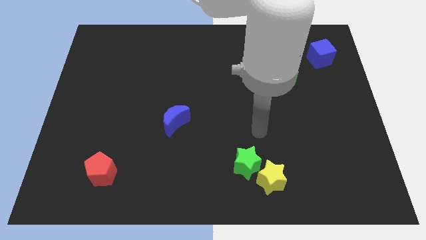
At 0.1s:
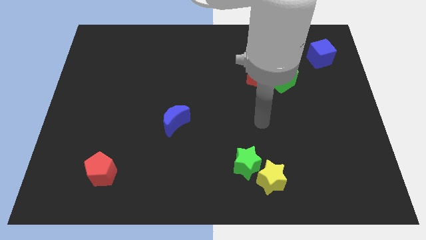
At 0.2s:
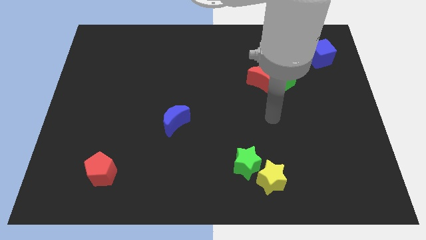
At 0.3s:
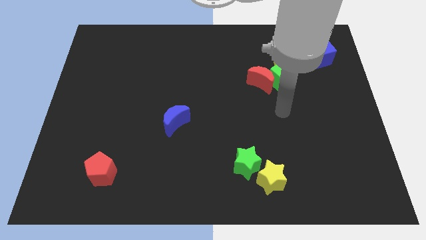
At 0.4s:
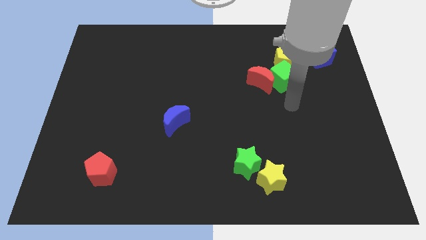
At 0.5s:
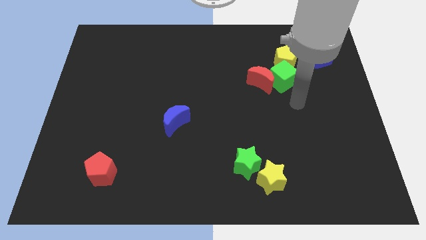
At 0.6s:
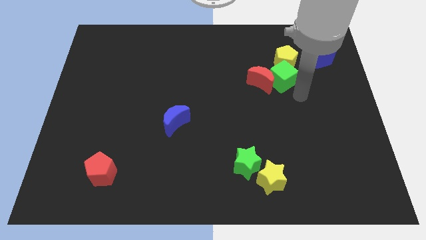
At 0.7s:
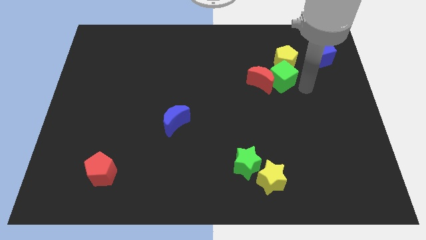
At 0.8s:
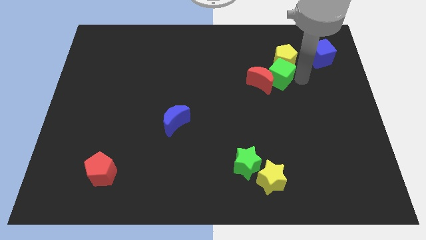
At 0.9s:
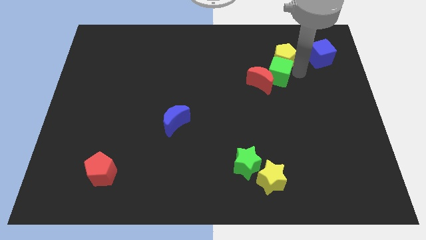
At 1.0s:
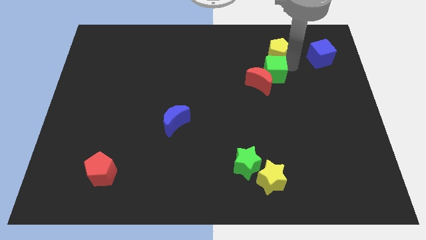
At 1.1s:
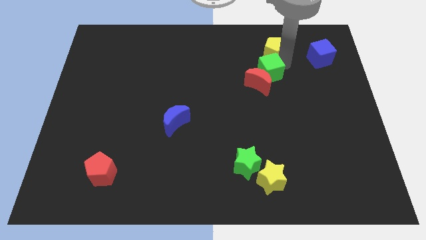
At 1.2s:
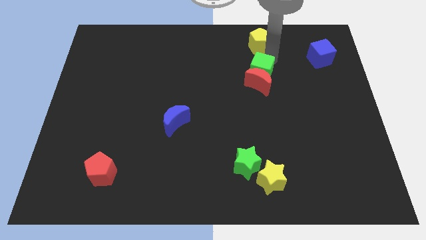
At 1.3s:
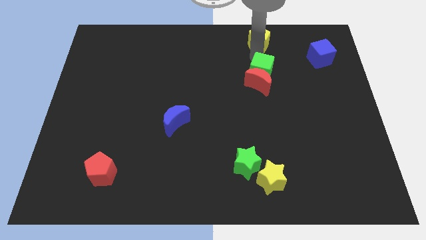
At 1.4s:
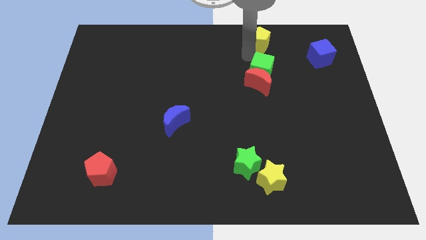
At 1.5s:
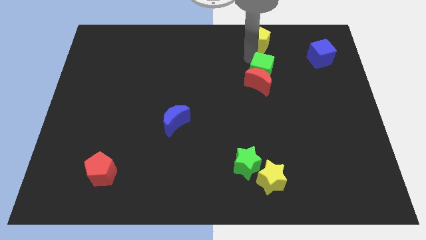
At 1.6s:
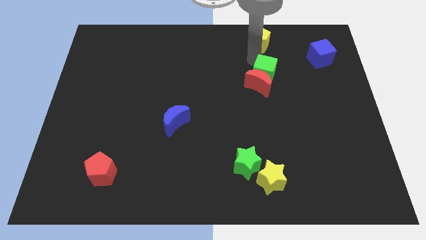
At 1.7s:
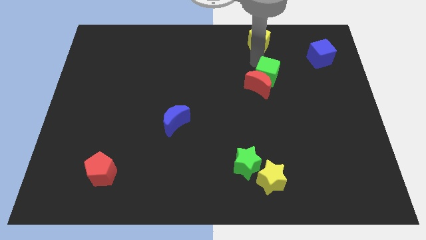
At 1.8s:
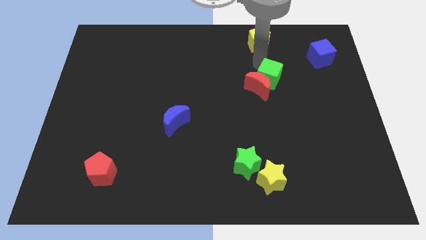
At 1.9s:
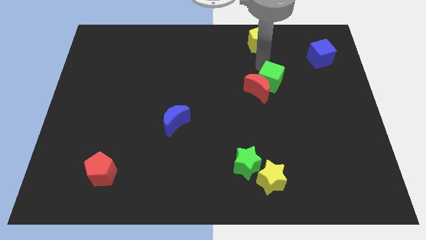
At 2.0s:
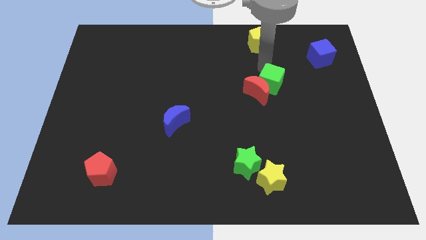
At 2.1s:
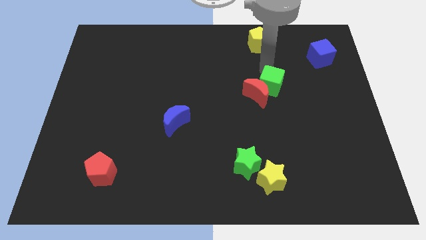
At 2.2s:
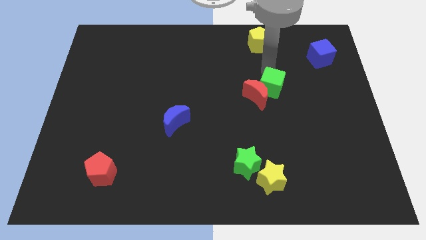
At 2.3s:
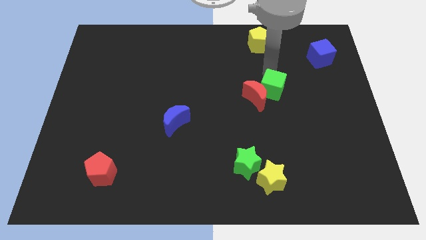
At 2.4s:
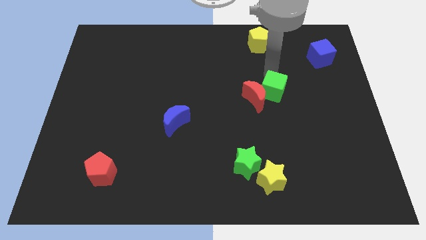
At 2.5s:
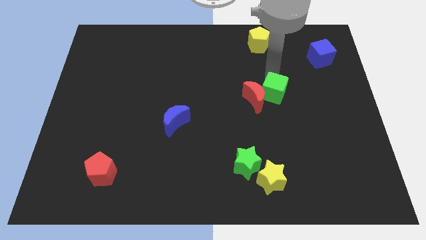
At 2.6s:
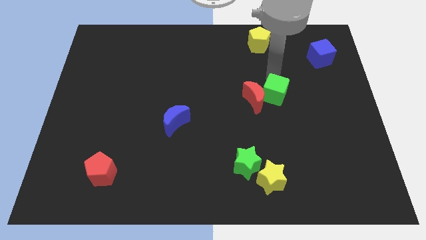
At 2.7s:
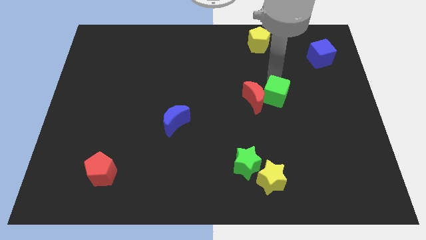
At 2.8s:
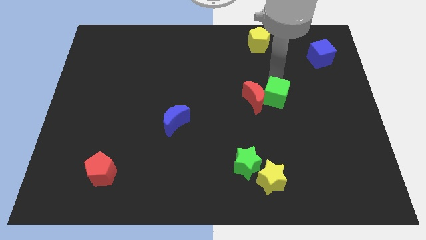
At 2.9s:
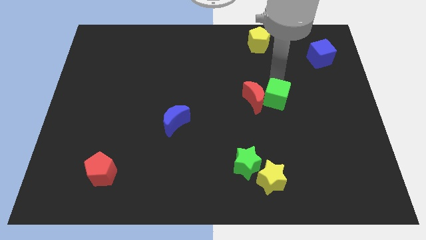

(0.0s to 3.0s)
pull the green cube apart from the red moon and yellow pentagon

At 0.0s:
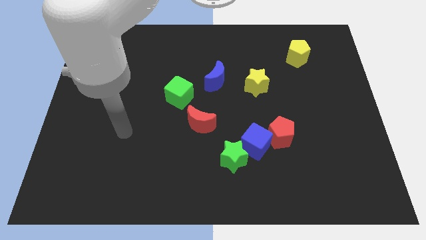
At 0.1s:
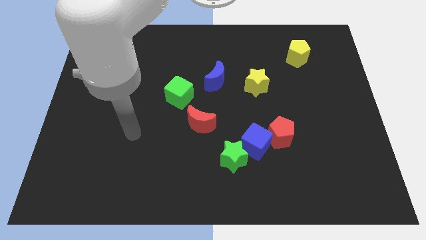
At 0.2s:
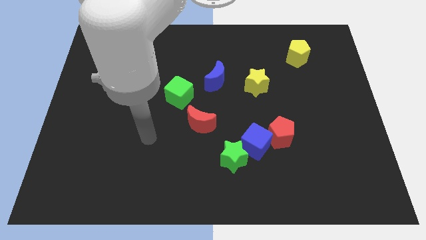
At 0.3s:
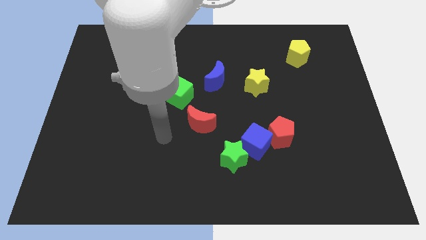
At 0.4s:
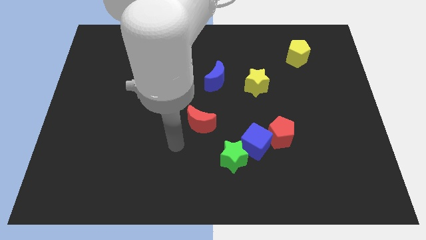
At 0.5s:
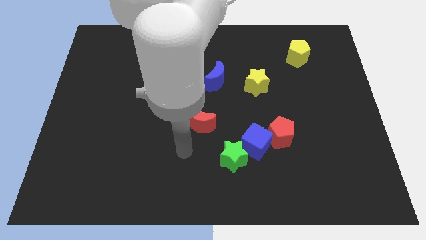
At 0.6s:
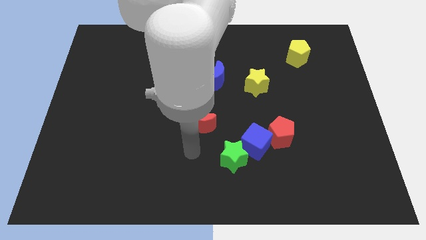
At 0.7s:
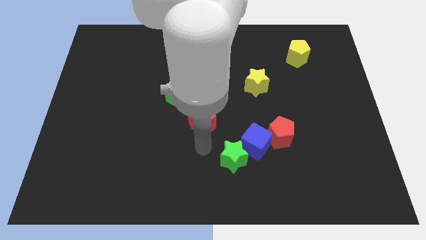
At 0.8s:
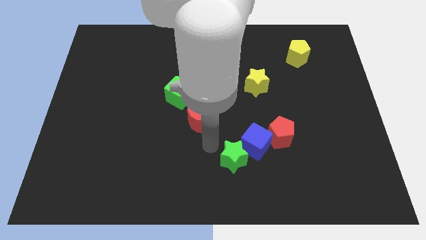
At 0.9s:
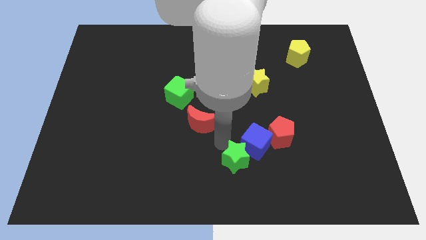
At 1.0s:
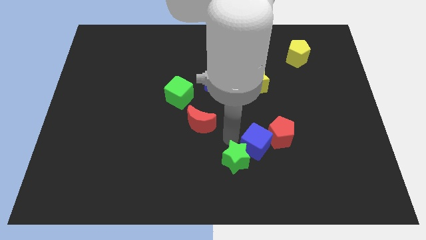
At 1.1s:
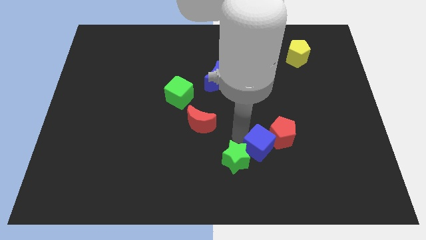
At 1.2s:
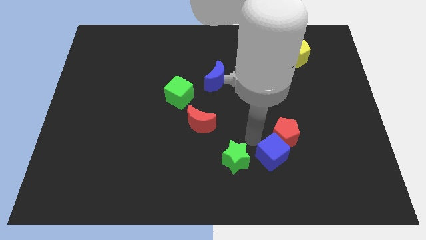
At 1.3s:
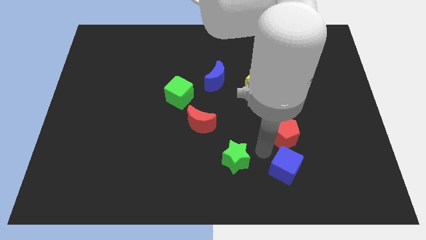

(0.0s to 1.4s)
separate the green star from the blue cube

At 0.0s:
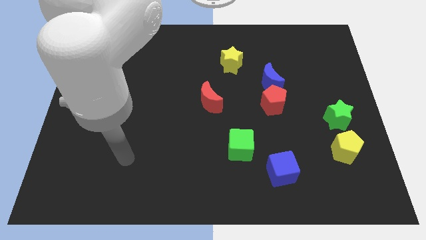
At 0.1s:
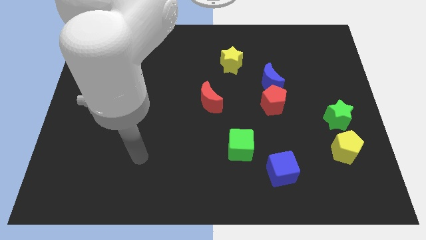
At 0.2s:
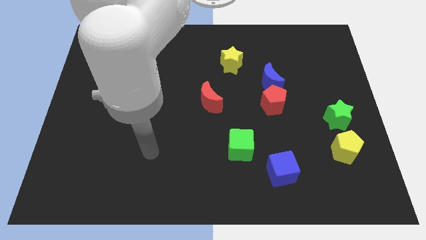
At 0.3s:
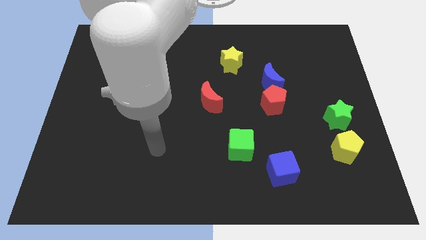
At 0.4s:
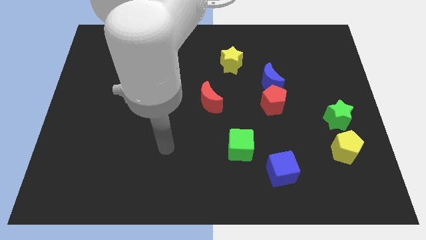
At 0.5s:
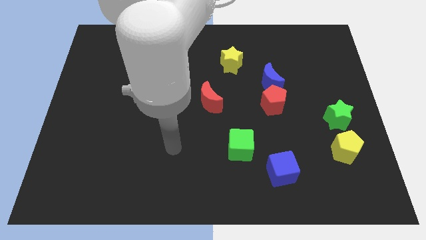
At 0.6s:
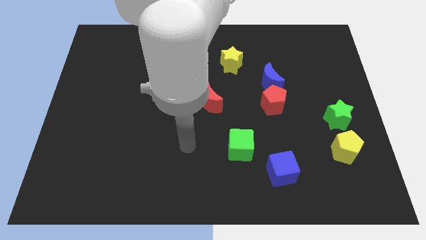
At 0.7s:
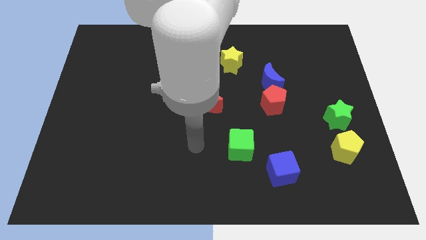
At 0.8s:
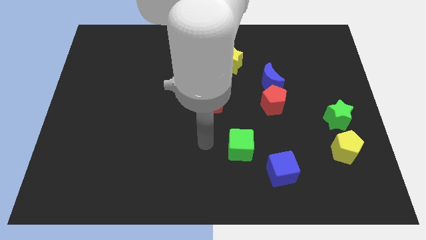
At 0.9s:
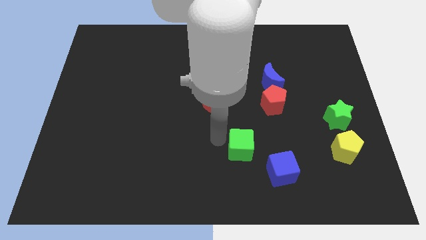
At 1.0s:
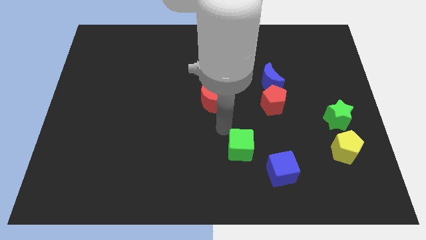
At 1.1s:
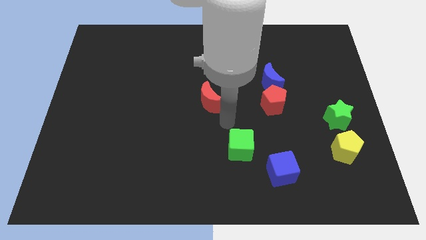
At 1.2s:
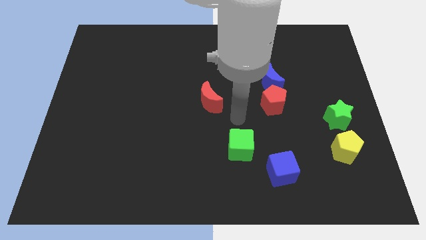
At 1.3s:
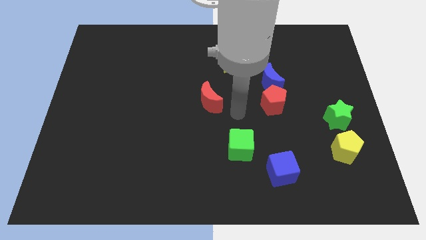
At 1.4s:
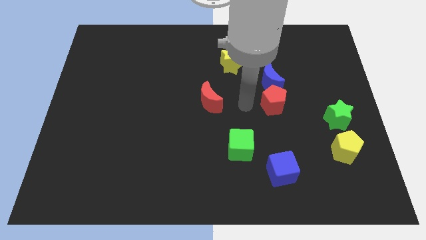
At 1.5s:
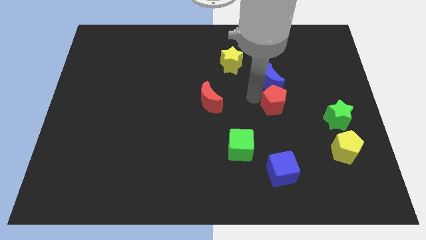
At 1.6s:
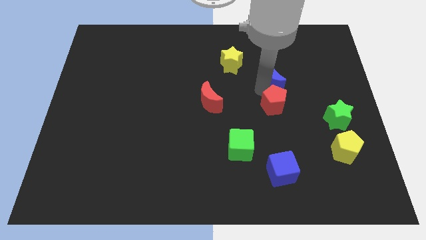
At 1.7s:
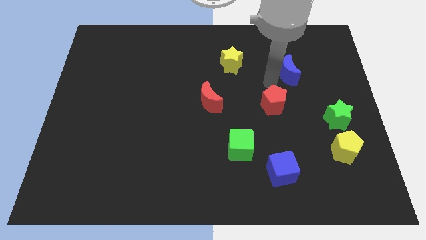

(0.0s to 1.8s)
move the red pentagon away from the blue moon

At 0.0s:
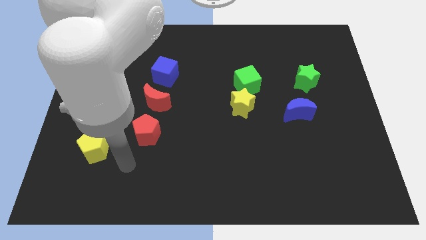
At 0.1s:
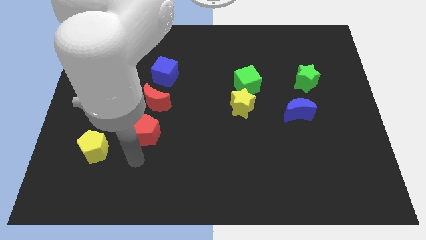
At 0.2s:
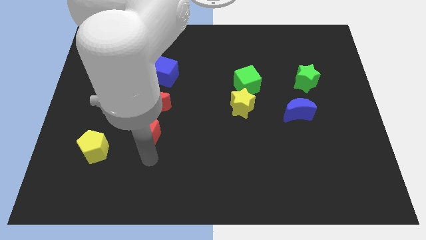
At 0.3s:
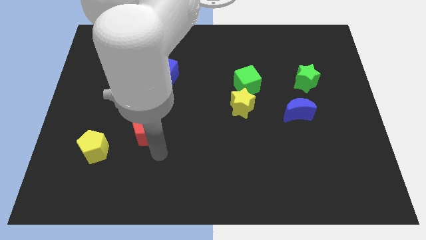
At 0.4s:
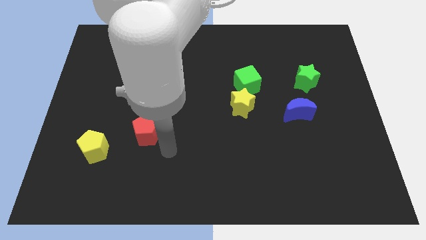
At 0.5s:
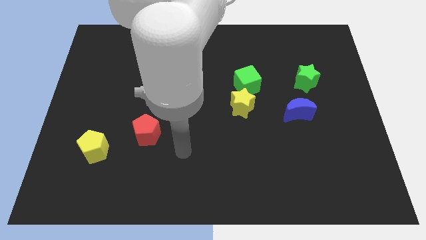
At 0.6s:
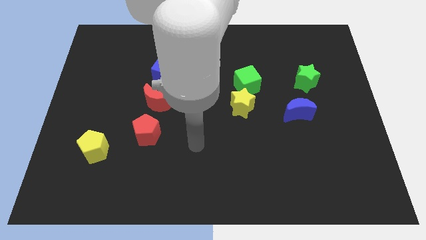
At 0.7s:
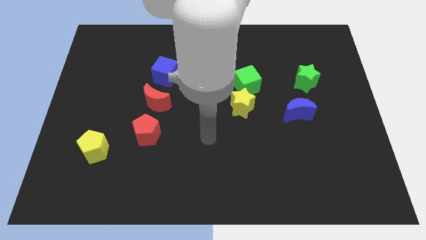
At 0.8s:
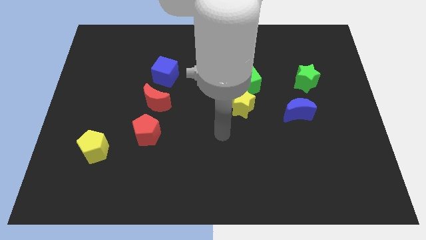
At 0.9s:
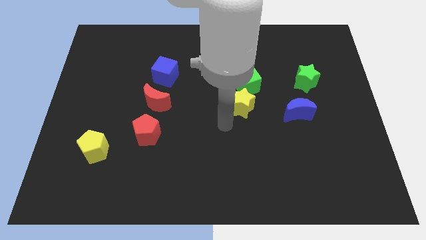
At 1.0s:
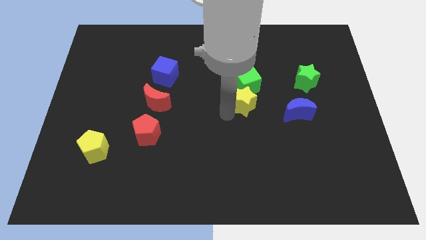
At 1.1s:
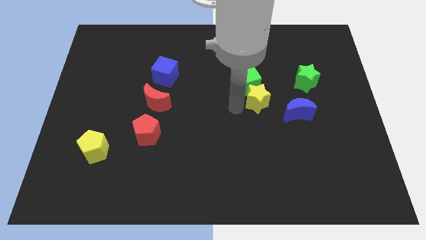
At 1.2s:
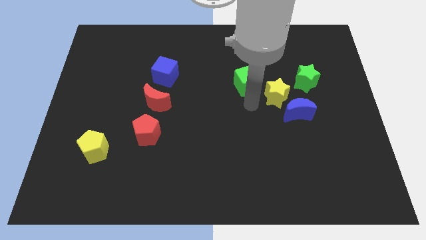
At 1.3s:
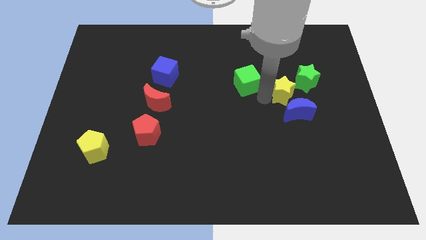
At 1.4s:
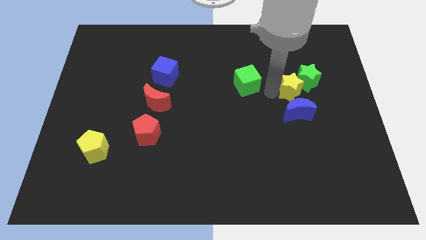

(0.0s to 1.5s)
separate the green cube from the yellow star

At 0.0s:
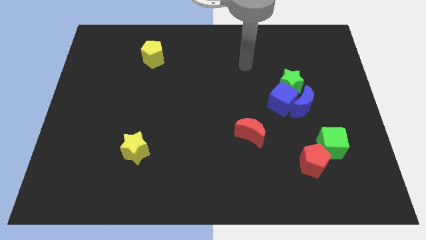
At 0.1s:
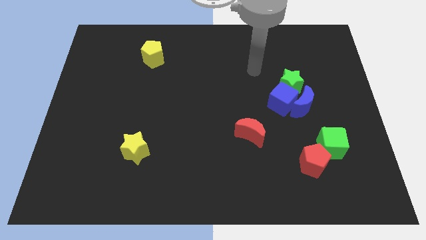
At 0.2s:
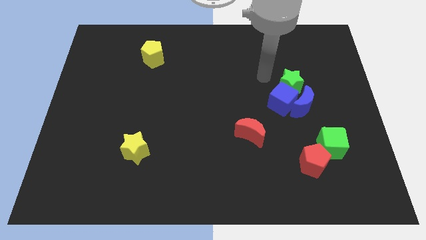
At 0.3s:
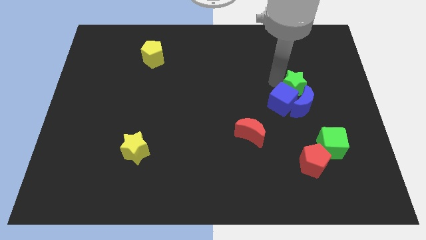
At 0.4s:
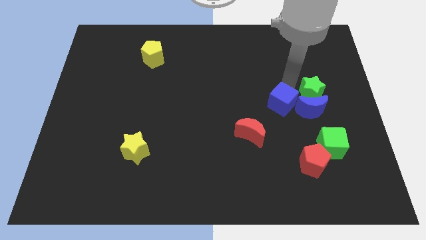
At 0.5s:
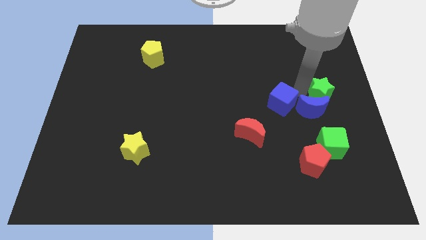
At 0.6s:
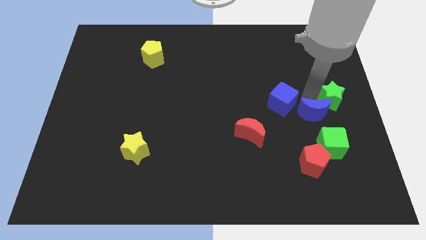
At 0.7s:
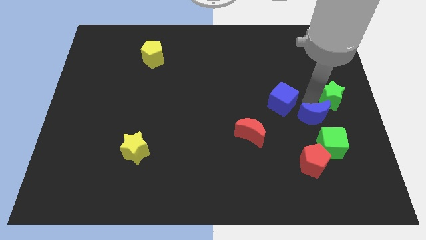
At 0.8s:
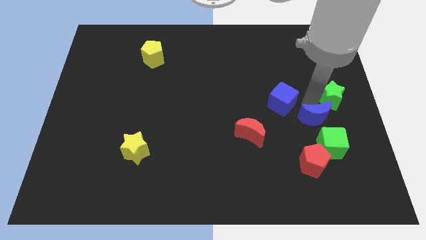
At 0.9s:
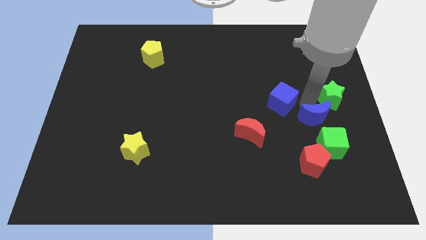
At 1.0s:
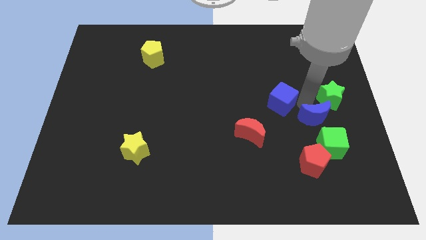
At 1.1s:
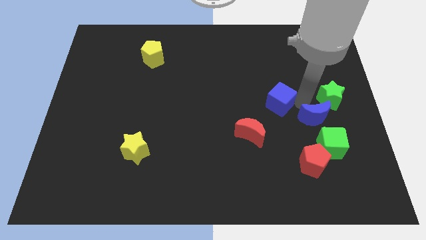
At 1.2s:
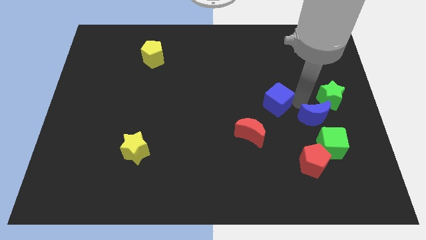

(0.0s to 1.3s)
separate the blue cube from the blue moon and green star

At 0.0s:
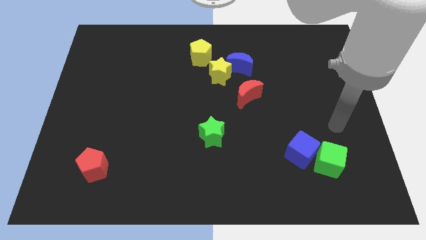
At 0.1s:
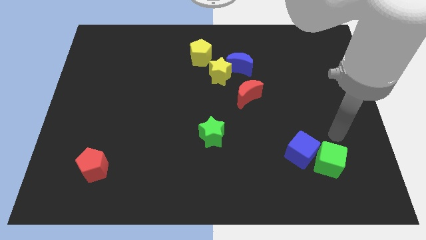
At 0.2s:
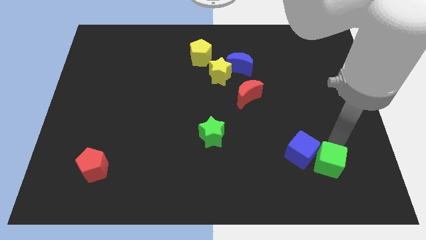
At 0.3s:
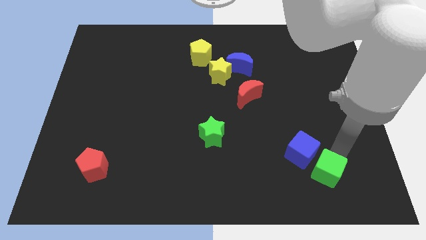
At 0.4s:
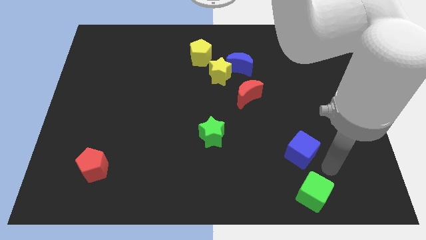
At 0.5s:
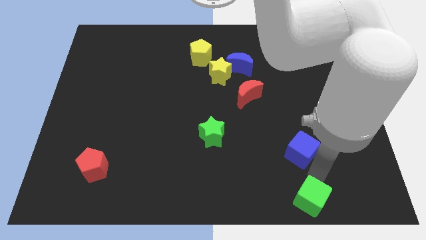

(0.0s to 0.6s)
move the blue cube away from the green cube
